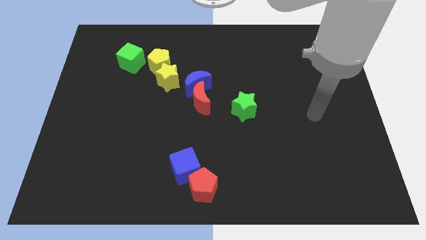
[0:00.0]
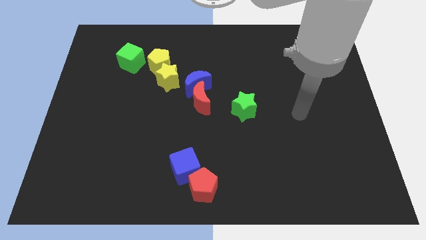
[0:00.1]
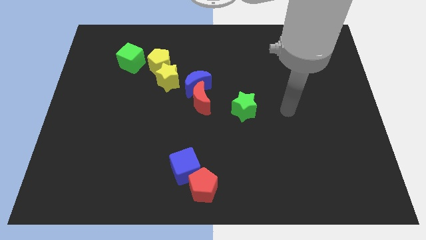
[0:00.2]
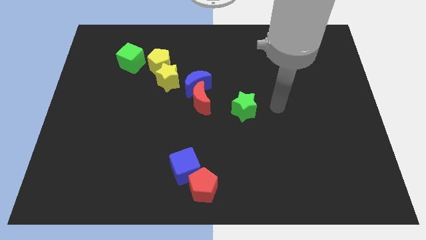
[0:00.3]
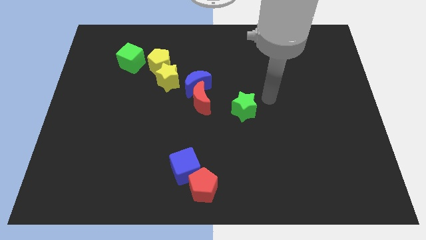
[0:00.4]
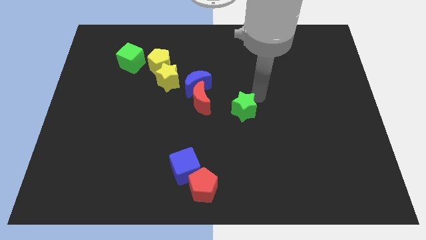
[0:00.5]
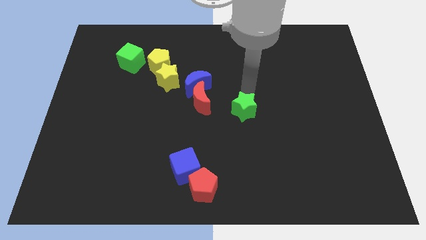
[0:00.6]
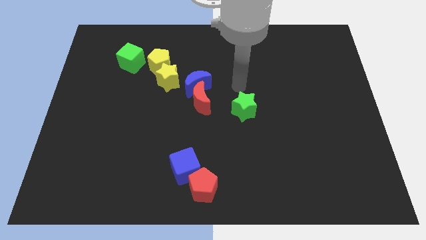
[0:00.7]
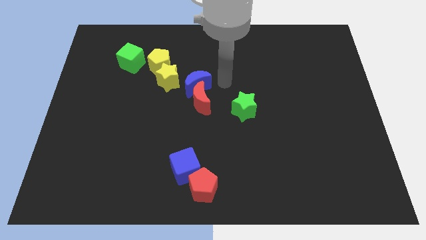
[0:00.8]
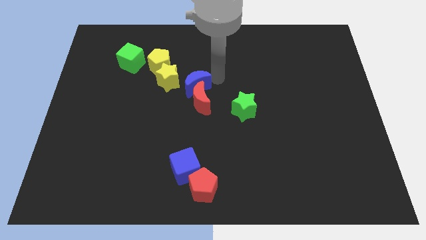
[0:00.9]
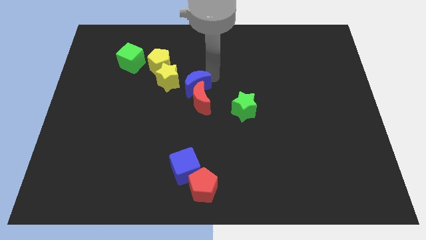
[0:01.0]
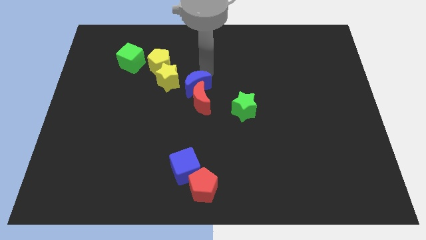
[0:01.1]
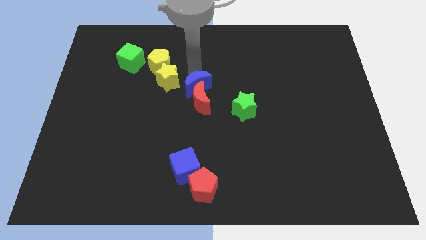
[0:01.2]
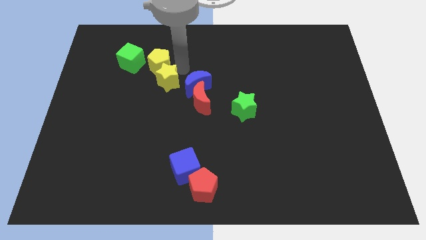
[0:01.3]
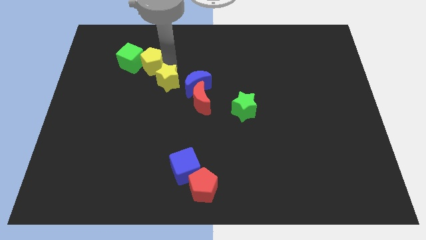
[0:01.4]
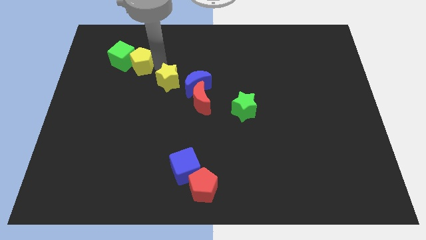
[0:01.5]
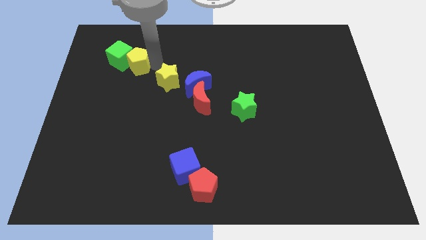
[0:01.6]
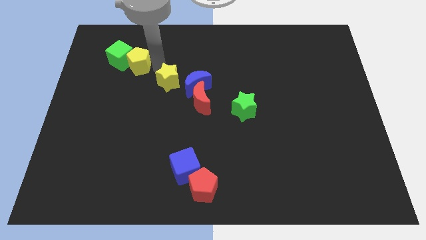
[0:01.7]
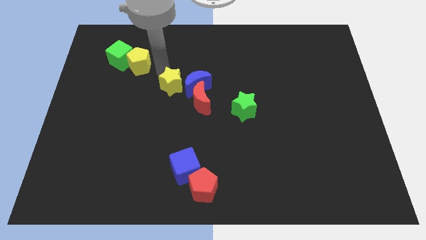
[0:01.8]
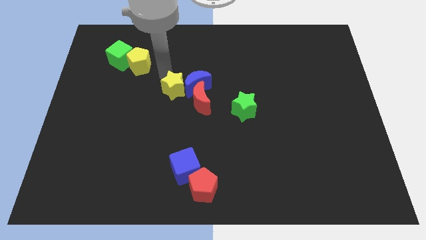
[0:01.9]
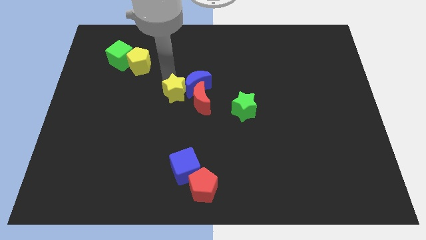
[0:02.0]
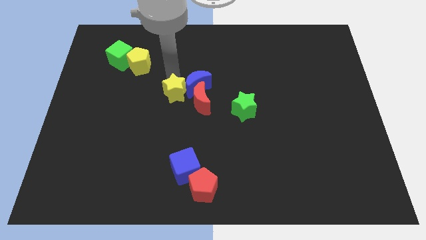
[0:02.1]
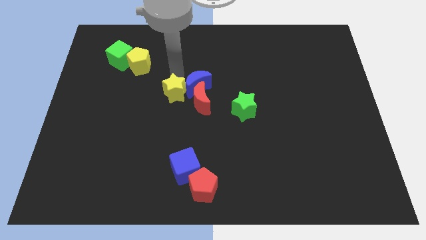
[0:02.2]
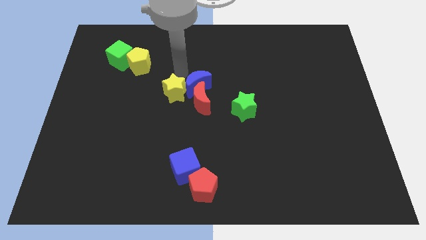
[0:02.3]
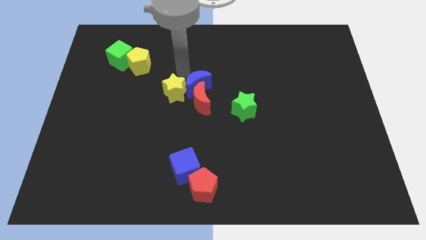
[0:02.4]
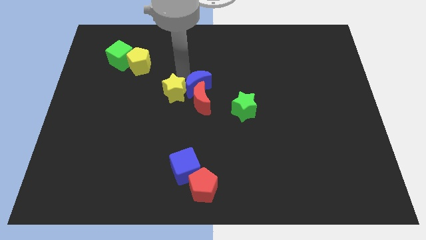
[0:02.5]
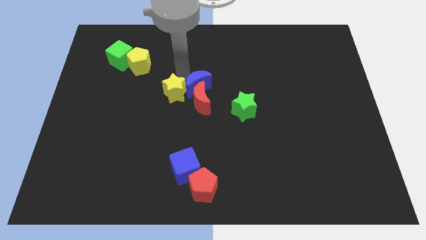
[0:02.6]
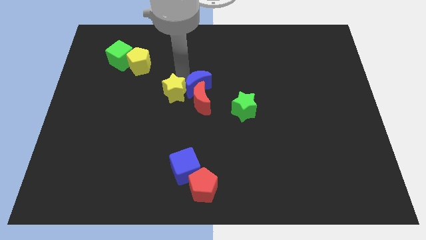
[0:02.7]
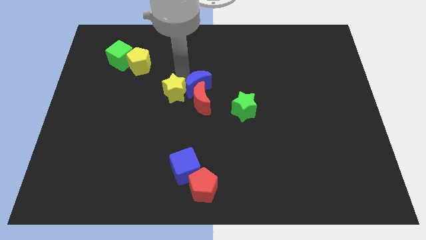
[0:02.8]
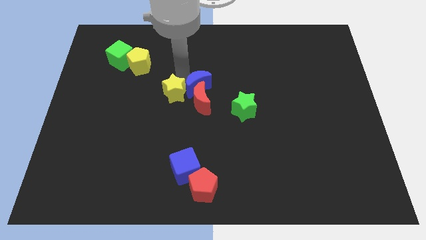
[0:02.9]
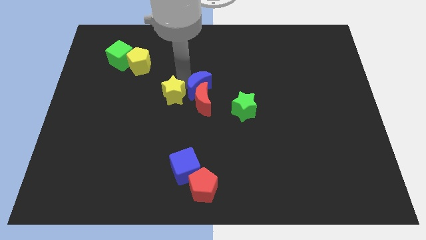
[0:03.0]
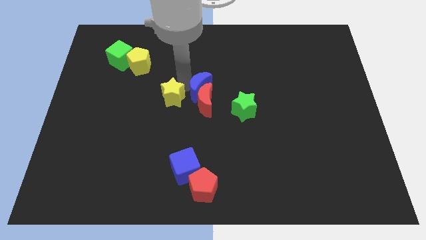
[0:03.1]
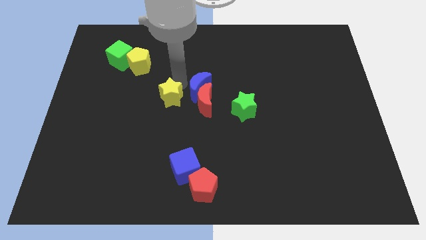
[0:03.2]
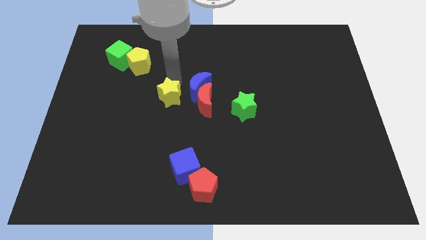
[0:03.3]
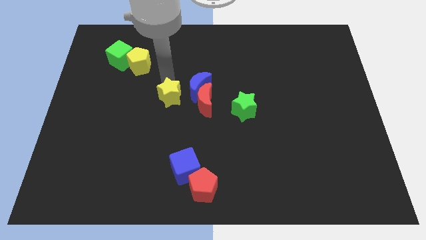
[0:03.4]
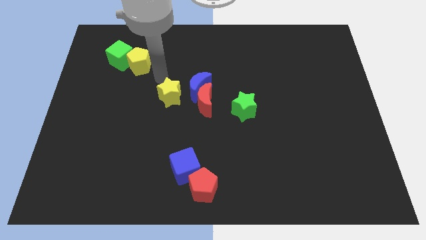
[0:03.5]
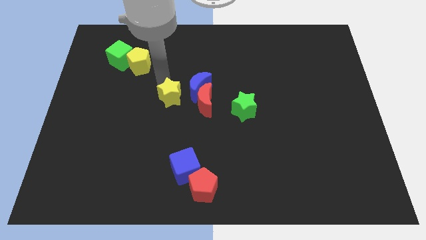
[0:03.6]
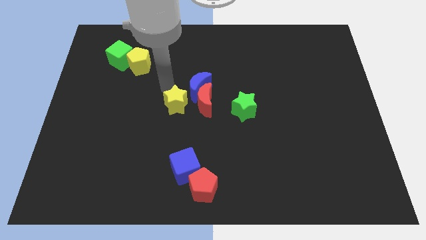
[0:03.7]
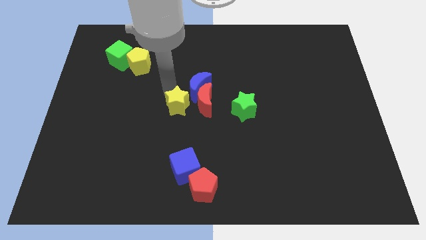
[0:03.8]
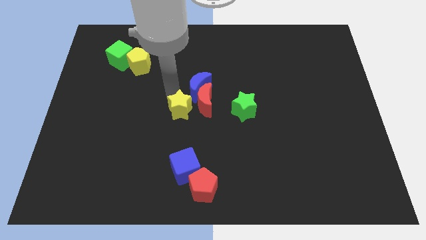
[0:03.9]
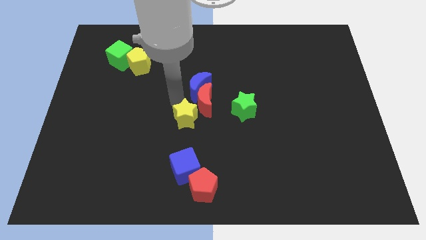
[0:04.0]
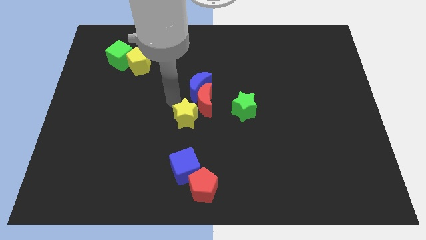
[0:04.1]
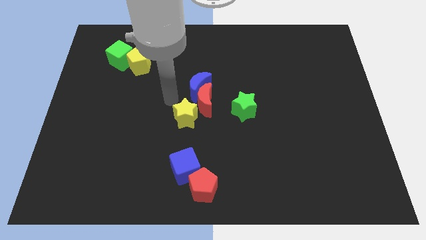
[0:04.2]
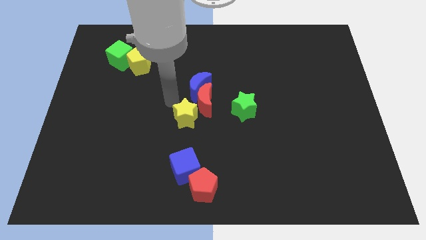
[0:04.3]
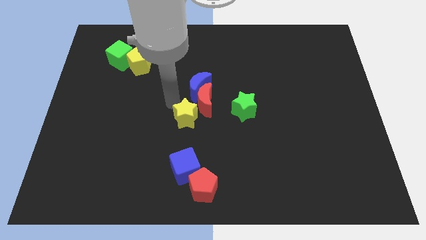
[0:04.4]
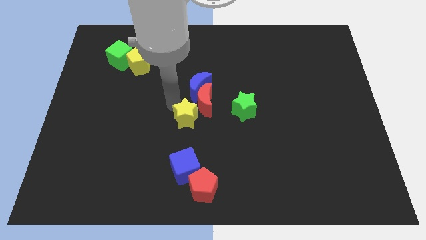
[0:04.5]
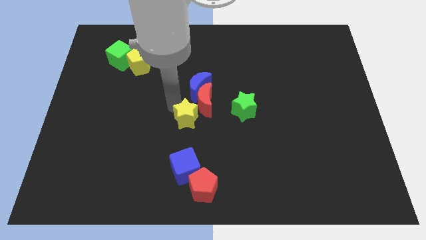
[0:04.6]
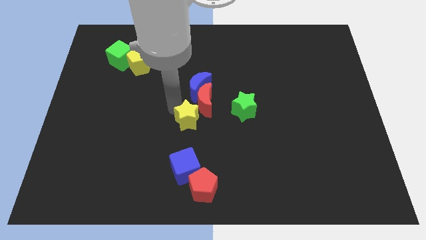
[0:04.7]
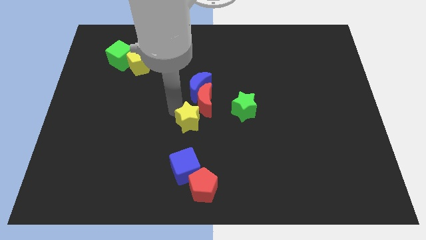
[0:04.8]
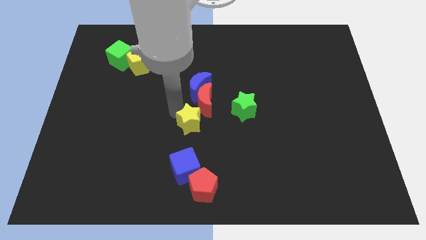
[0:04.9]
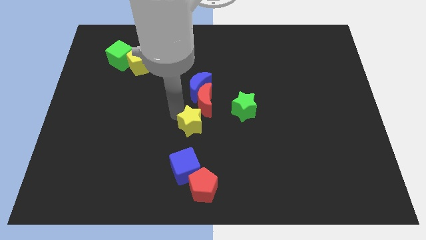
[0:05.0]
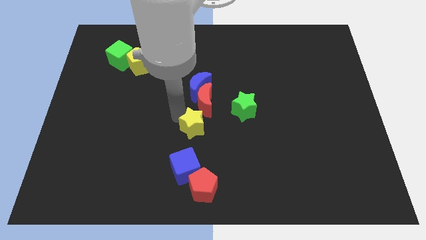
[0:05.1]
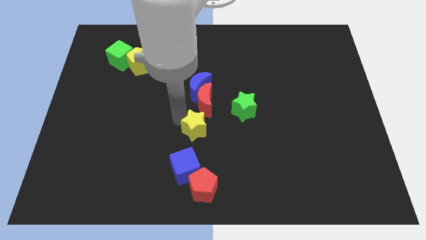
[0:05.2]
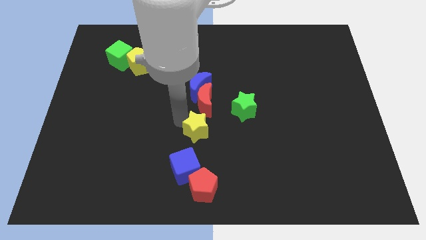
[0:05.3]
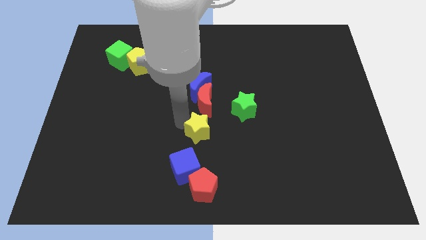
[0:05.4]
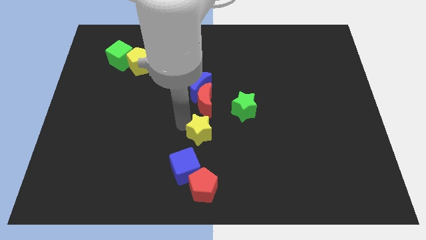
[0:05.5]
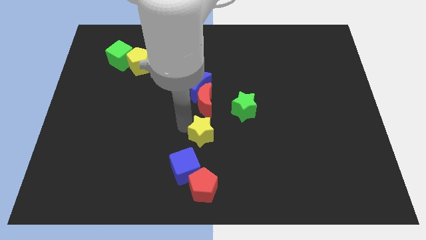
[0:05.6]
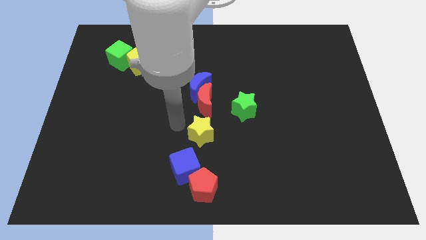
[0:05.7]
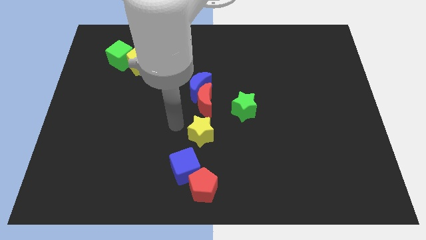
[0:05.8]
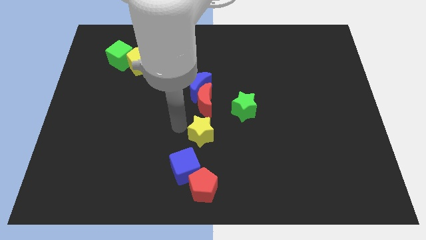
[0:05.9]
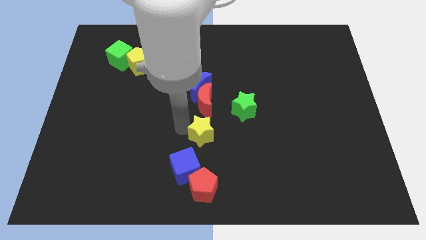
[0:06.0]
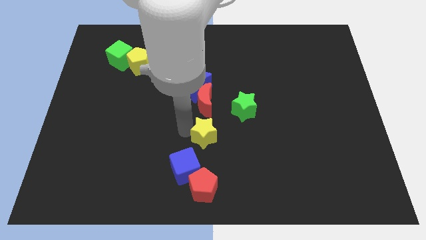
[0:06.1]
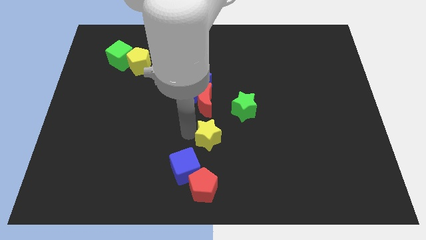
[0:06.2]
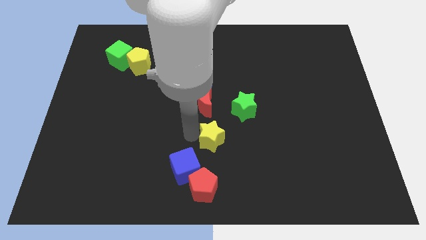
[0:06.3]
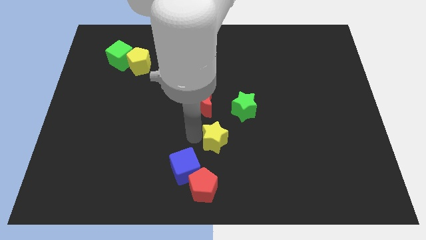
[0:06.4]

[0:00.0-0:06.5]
slide the yellow star down and then to the right

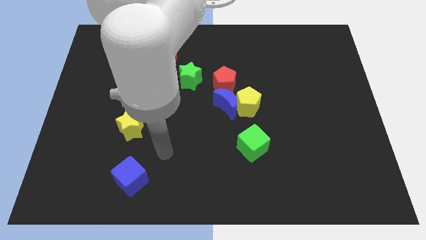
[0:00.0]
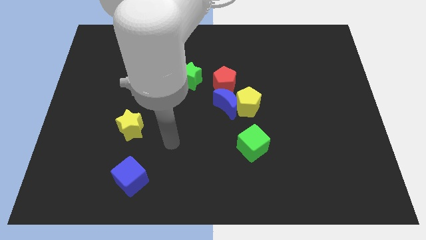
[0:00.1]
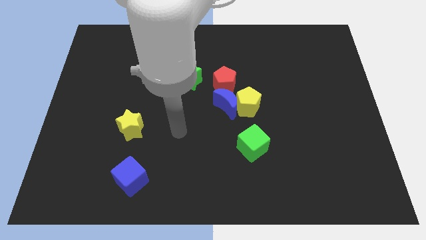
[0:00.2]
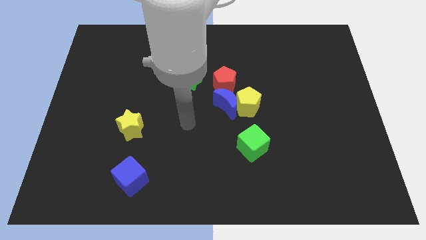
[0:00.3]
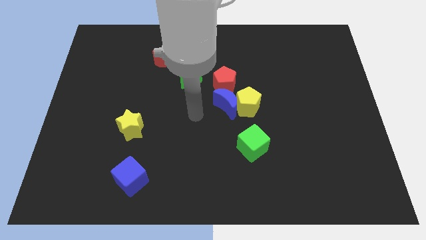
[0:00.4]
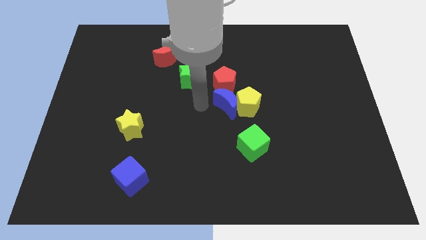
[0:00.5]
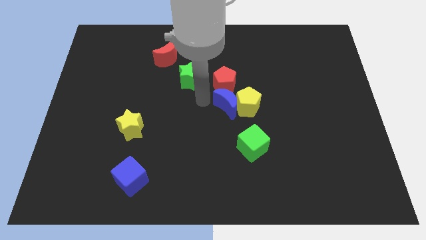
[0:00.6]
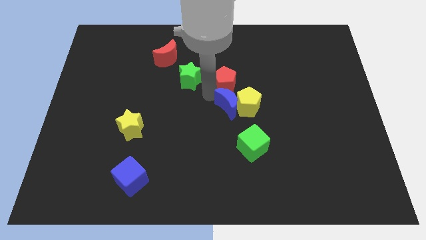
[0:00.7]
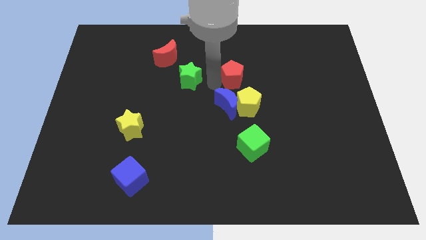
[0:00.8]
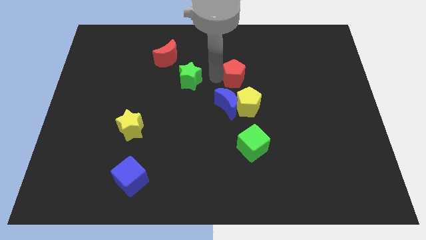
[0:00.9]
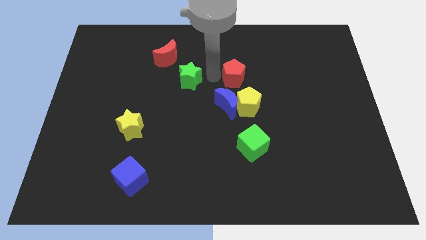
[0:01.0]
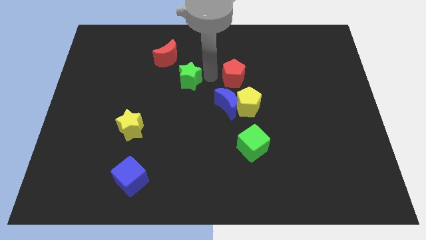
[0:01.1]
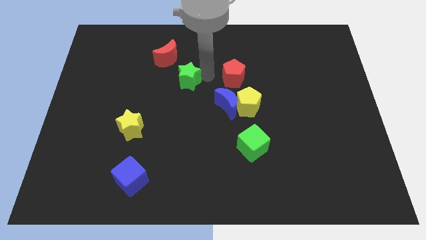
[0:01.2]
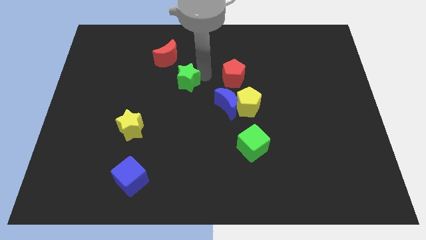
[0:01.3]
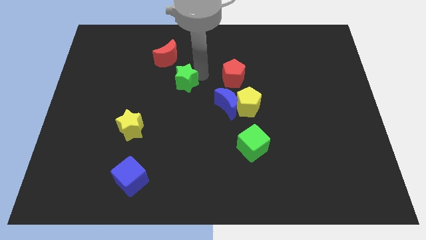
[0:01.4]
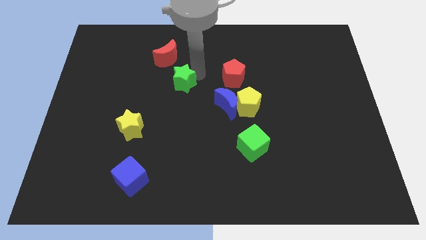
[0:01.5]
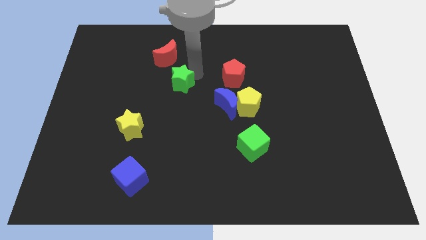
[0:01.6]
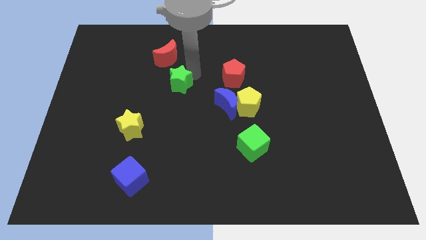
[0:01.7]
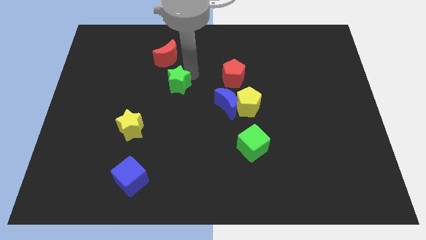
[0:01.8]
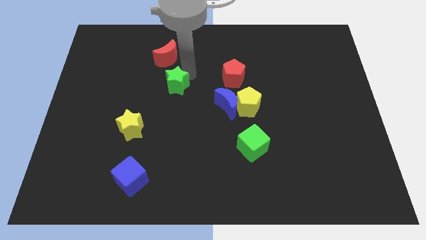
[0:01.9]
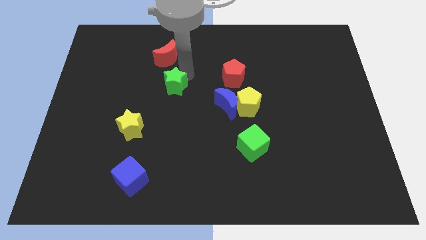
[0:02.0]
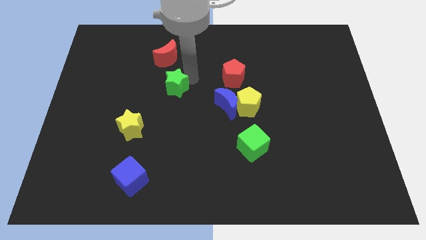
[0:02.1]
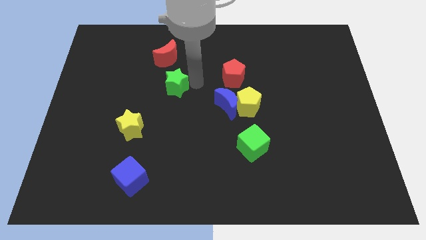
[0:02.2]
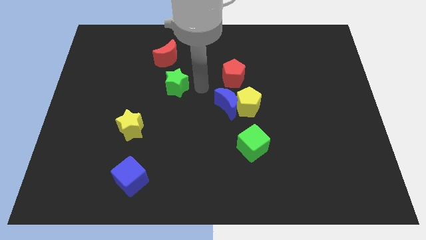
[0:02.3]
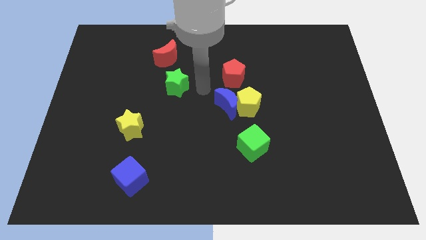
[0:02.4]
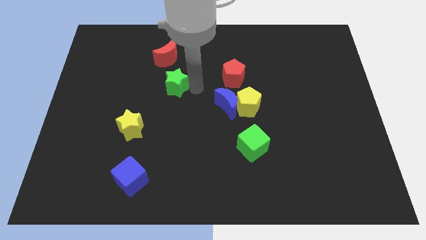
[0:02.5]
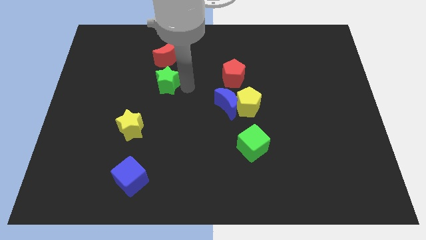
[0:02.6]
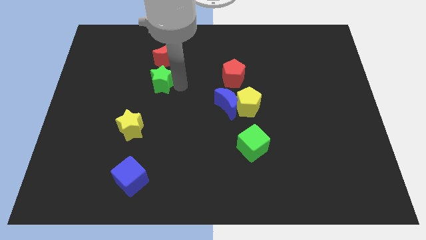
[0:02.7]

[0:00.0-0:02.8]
slightly push the green star to the left
